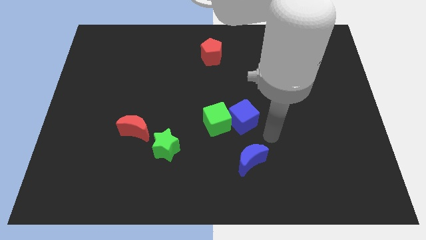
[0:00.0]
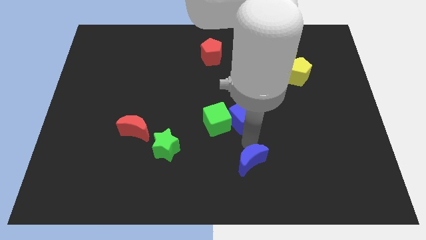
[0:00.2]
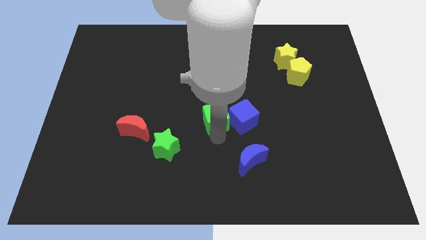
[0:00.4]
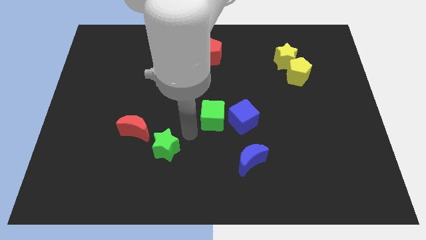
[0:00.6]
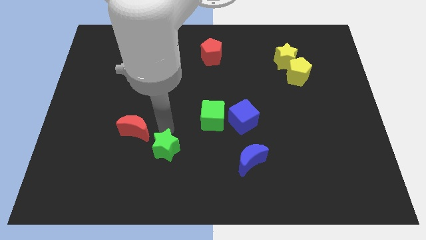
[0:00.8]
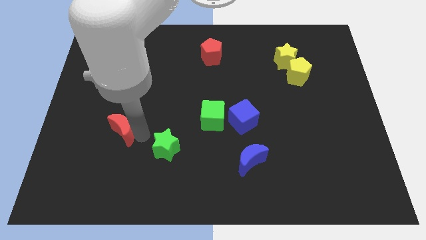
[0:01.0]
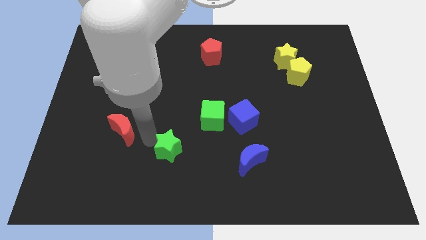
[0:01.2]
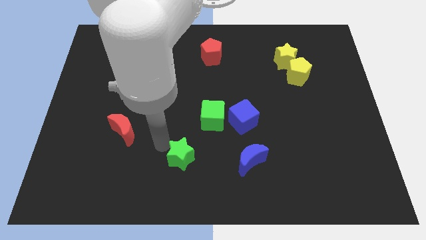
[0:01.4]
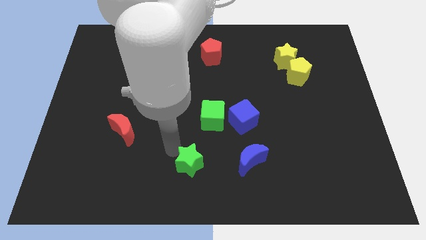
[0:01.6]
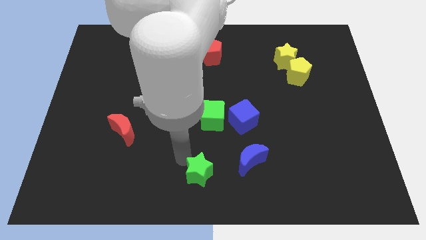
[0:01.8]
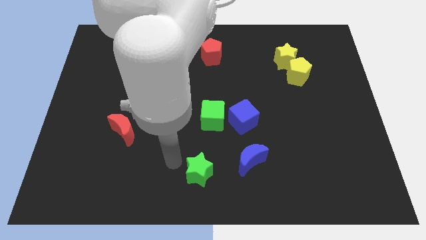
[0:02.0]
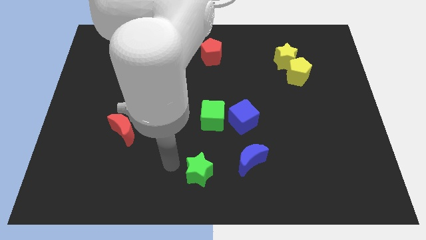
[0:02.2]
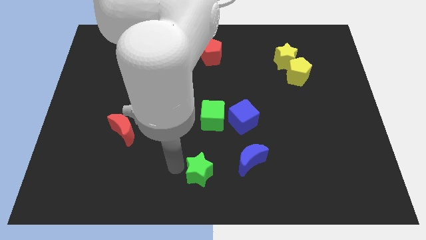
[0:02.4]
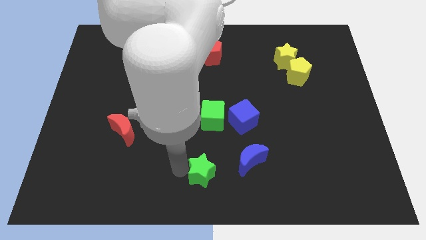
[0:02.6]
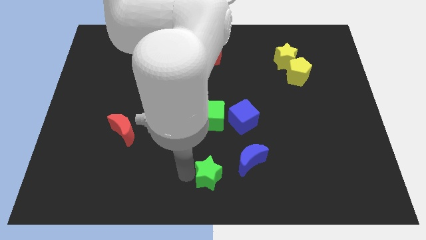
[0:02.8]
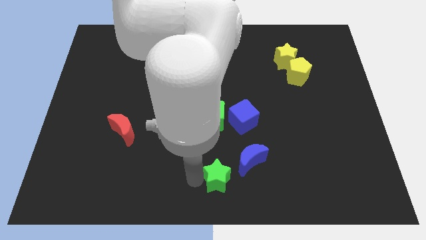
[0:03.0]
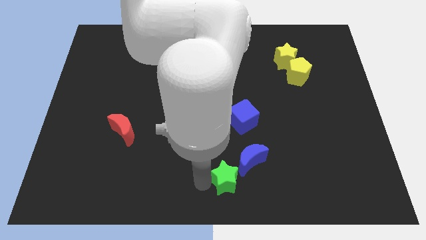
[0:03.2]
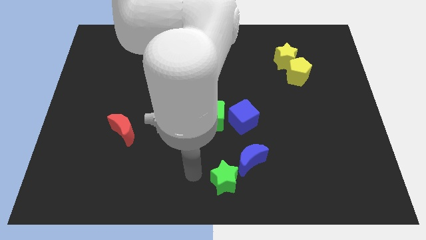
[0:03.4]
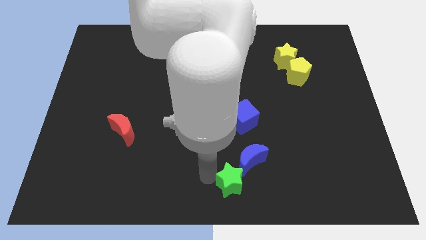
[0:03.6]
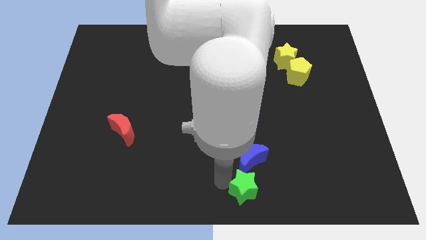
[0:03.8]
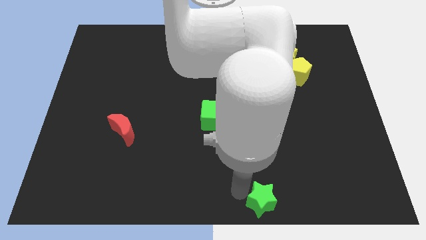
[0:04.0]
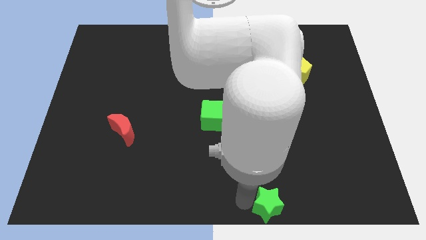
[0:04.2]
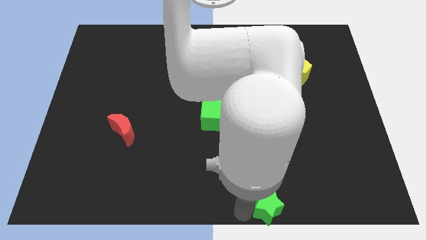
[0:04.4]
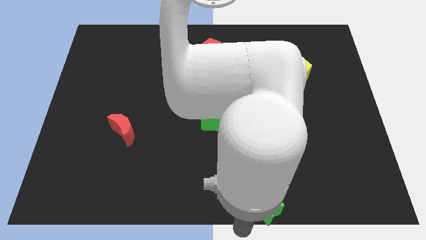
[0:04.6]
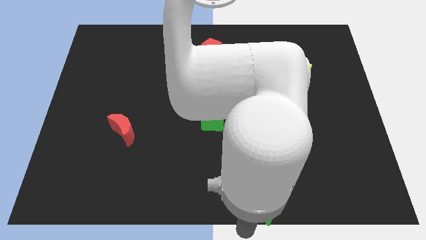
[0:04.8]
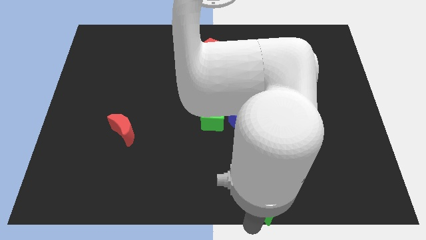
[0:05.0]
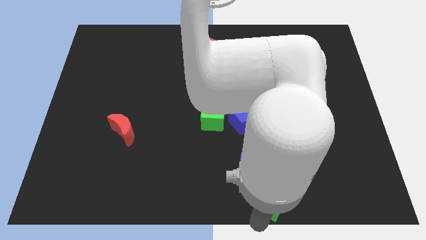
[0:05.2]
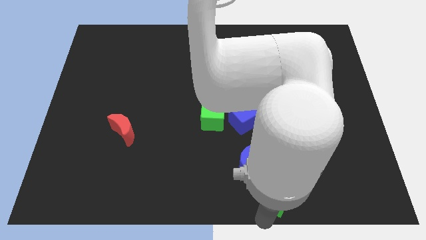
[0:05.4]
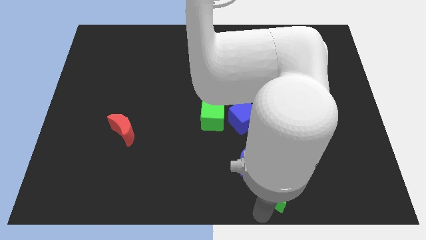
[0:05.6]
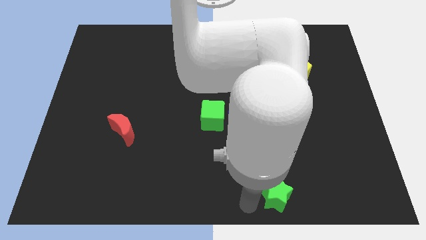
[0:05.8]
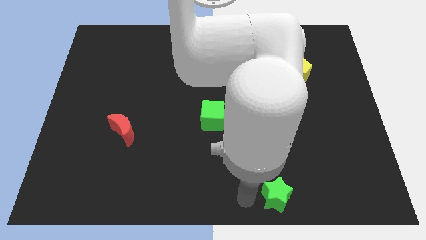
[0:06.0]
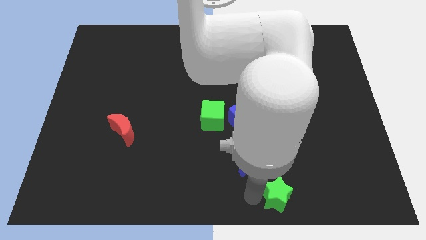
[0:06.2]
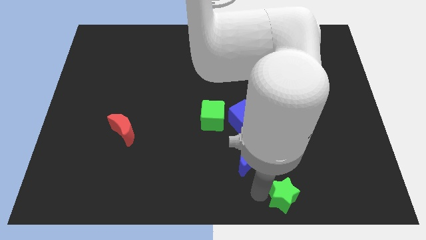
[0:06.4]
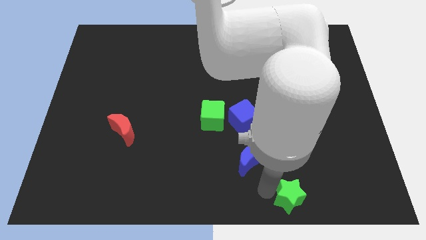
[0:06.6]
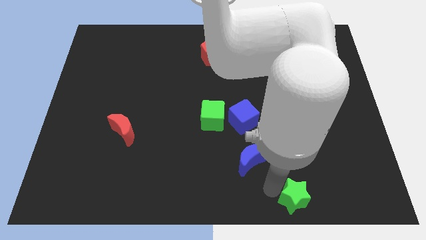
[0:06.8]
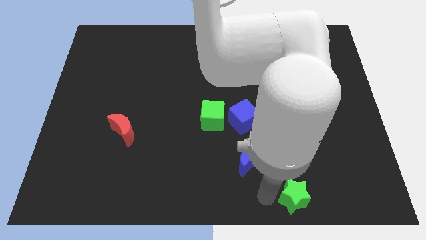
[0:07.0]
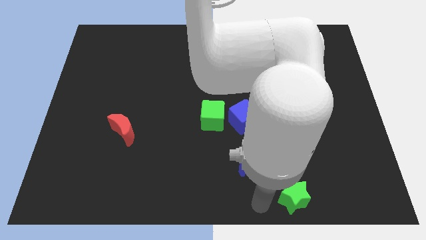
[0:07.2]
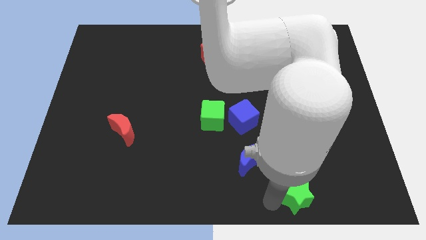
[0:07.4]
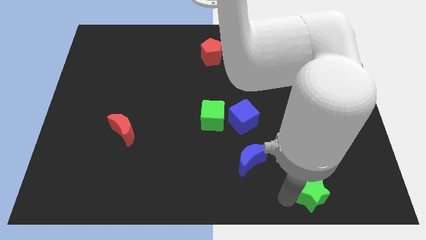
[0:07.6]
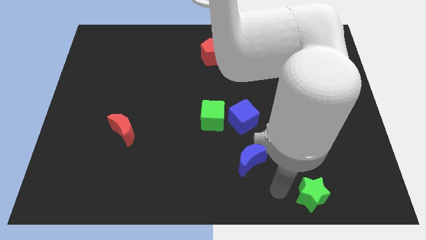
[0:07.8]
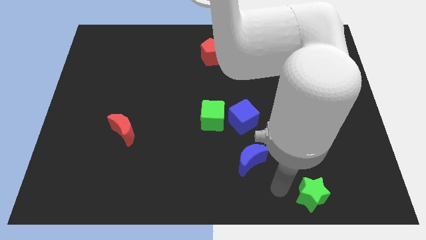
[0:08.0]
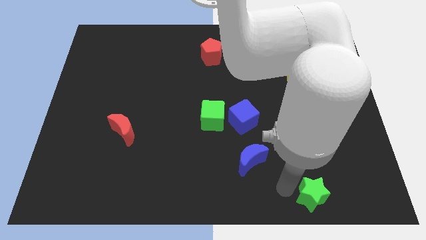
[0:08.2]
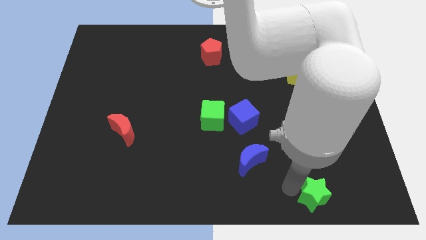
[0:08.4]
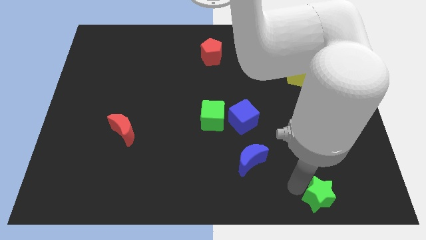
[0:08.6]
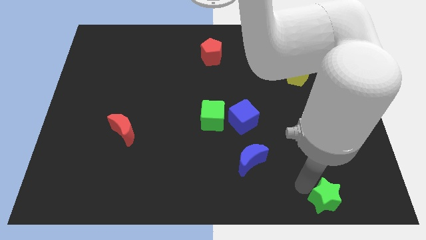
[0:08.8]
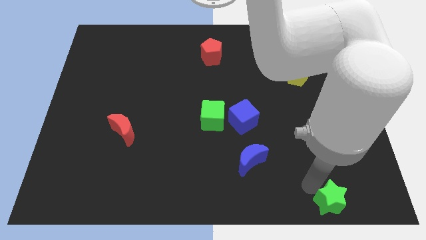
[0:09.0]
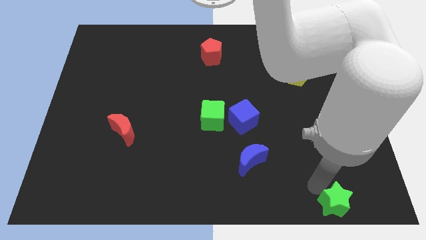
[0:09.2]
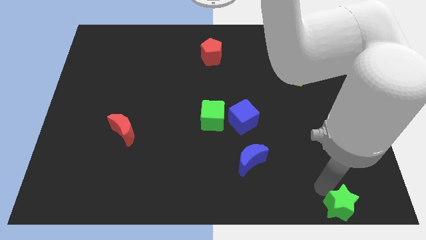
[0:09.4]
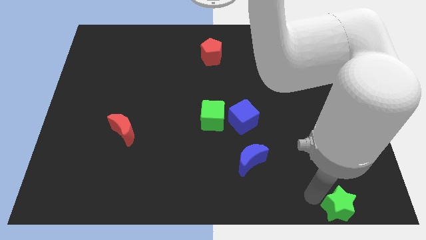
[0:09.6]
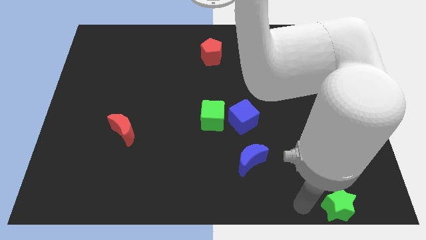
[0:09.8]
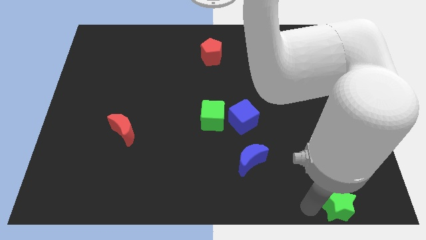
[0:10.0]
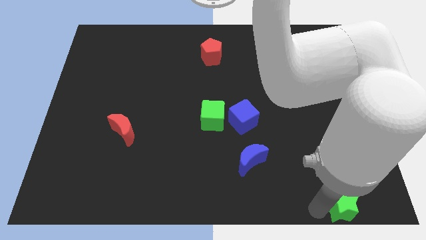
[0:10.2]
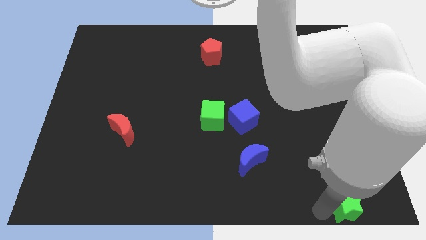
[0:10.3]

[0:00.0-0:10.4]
slide the green star to the bottom right of the board

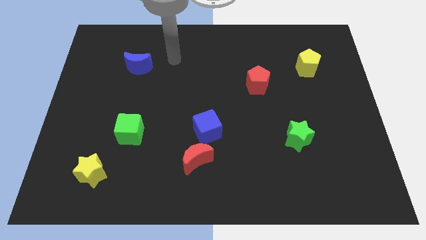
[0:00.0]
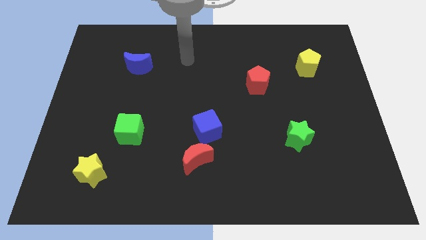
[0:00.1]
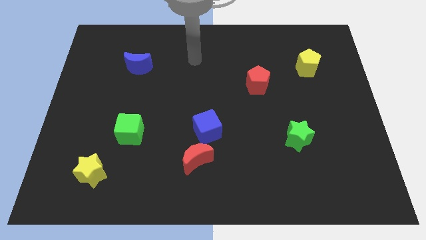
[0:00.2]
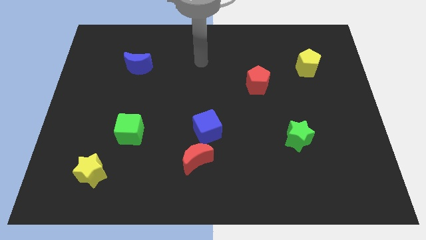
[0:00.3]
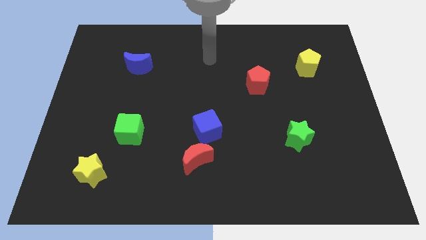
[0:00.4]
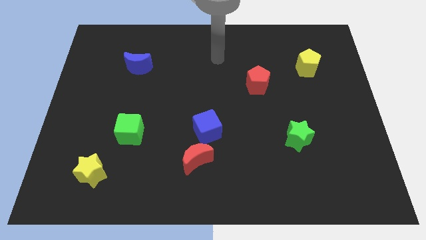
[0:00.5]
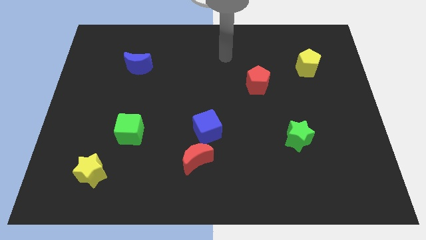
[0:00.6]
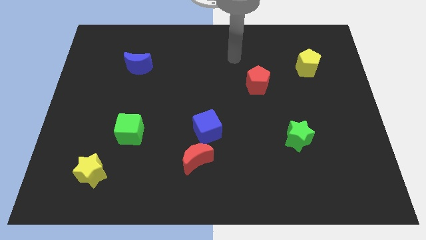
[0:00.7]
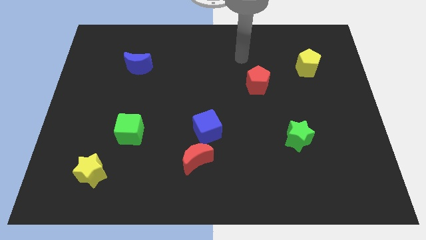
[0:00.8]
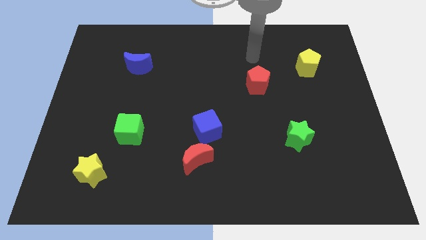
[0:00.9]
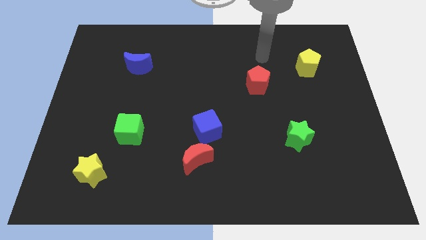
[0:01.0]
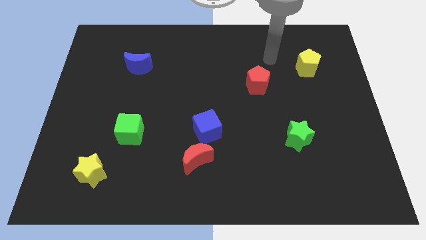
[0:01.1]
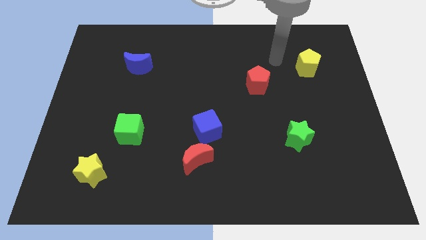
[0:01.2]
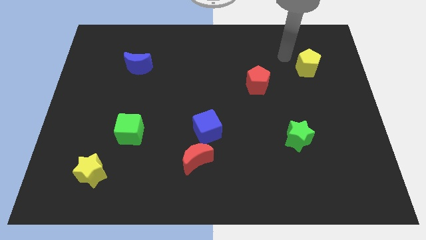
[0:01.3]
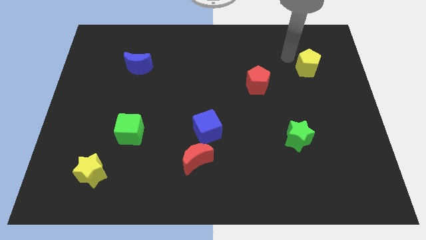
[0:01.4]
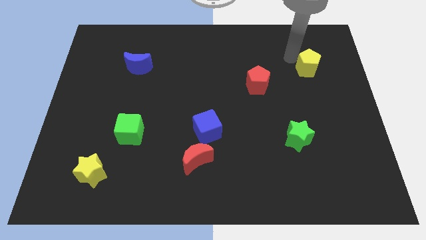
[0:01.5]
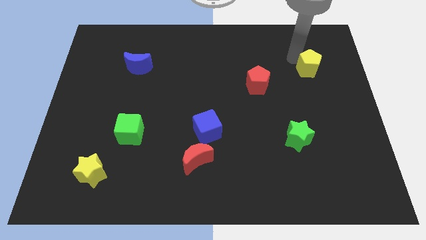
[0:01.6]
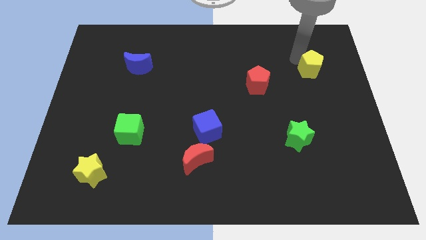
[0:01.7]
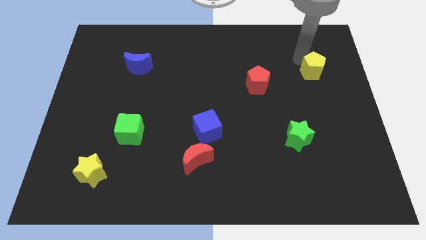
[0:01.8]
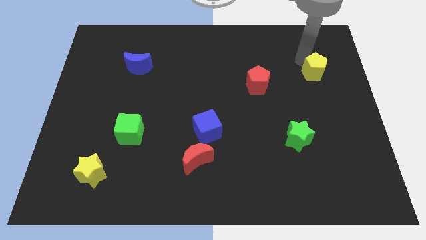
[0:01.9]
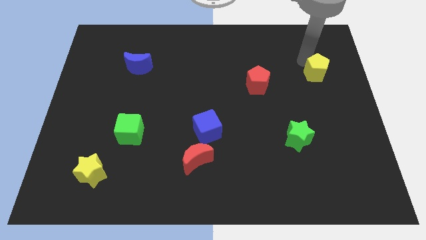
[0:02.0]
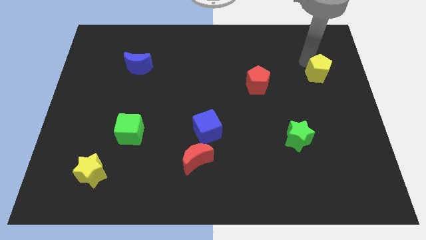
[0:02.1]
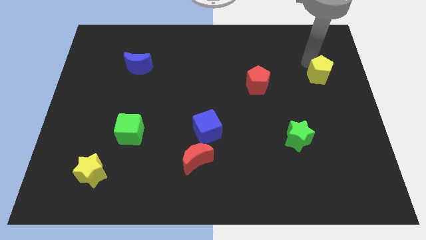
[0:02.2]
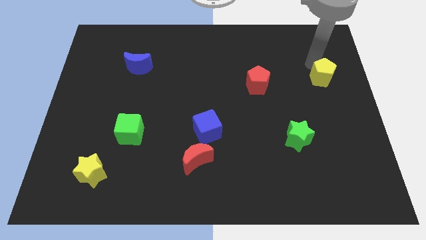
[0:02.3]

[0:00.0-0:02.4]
push the yellow pentagon to the right side of the board
